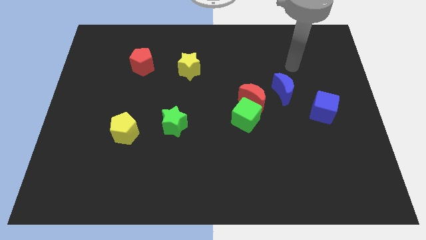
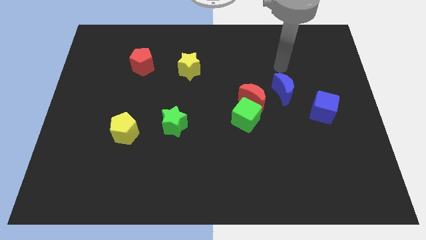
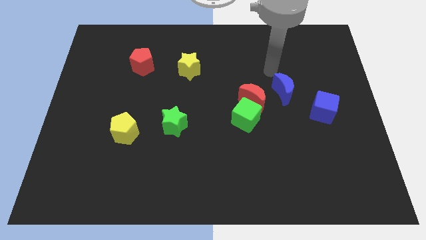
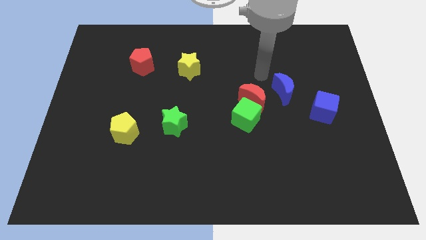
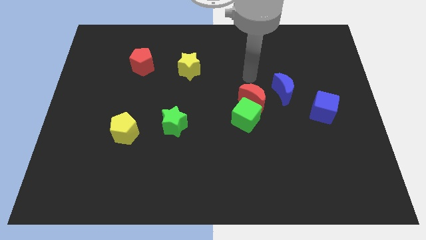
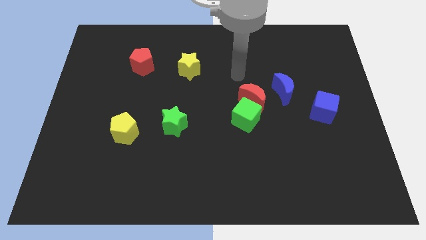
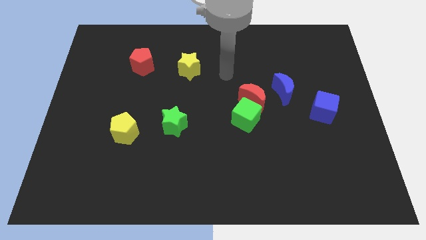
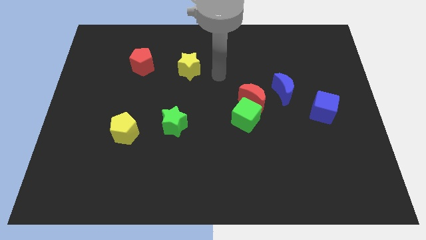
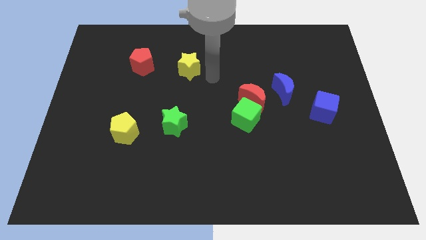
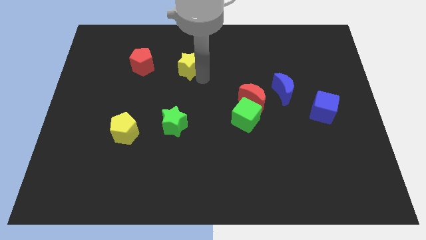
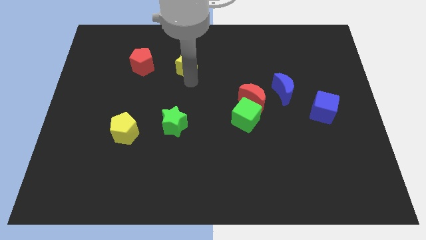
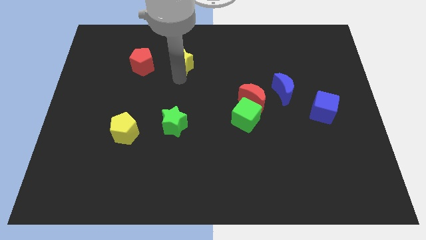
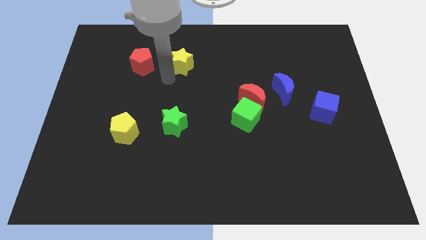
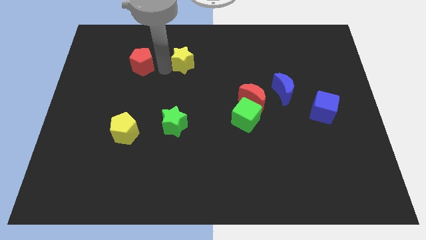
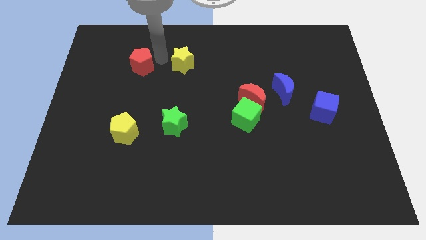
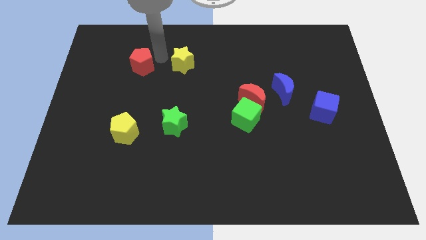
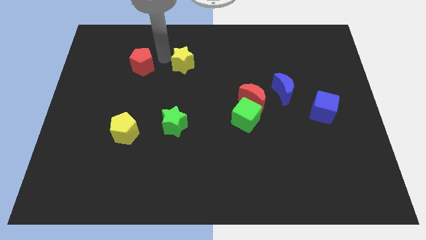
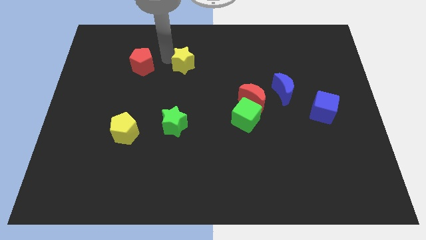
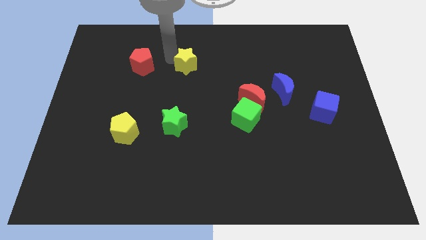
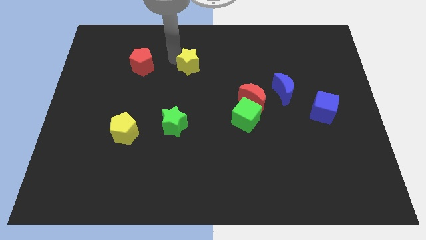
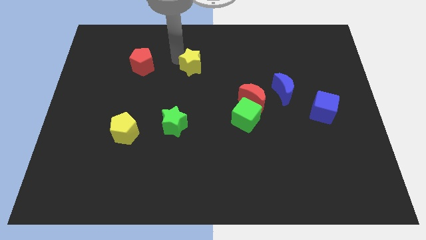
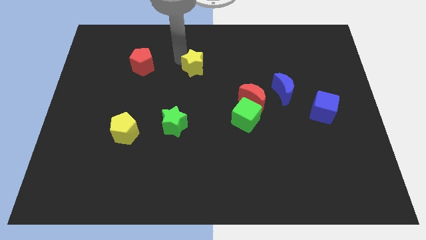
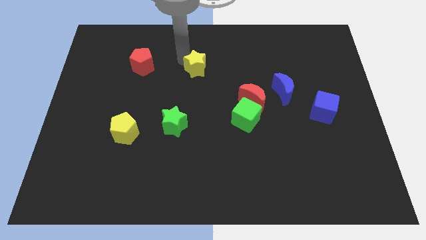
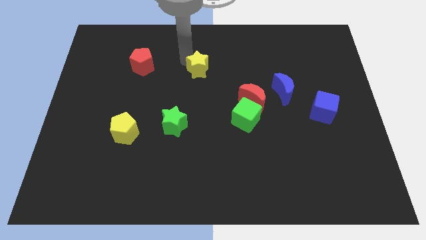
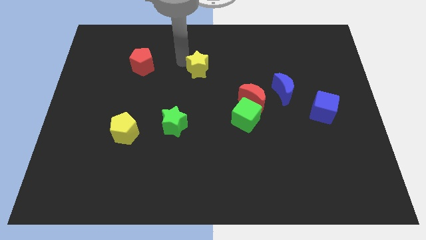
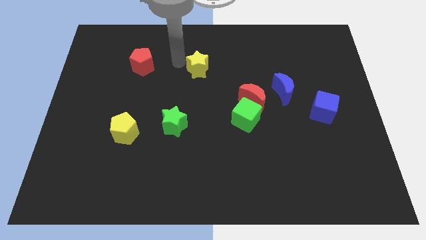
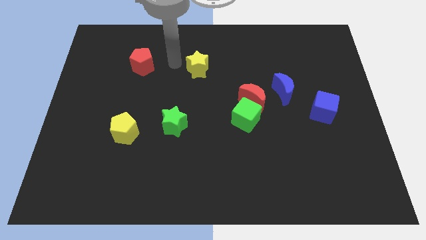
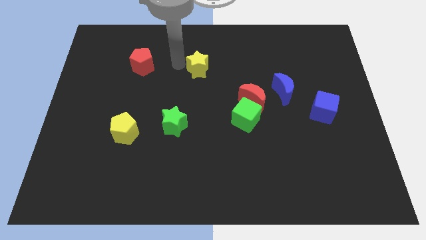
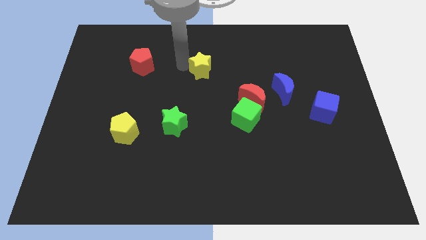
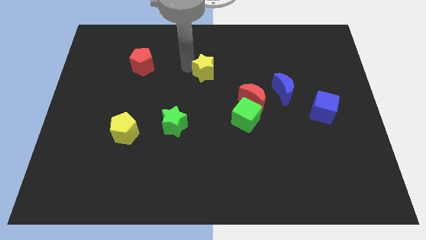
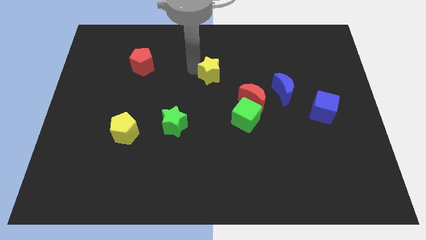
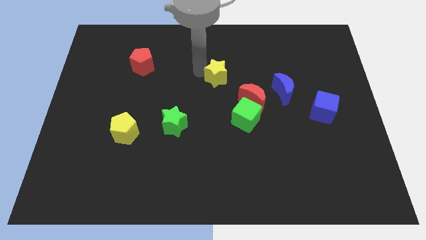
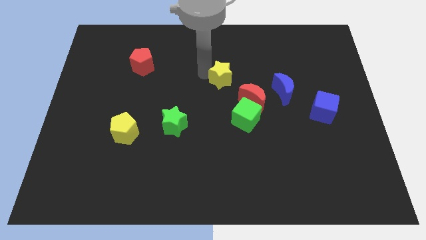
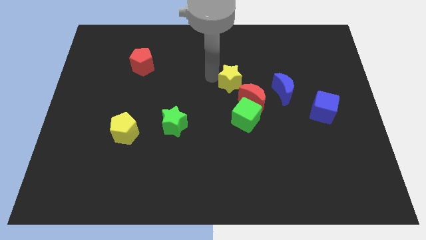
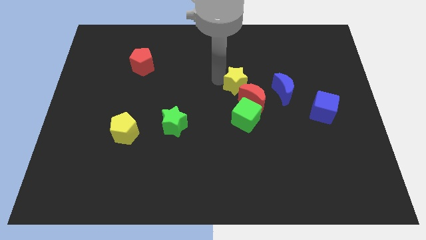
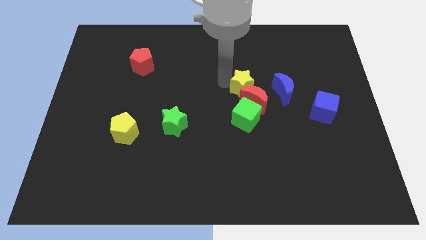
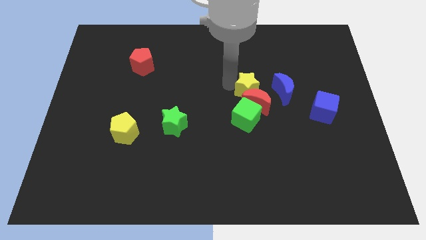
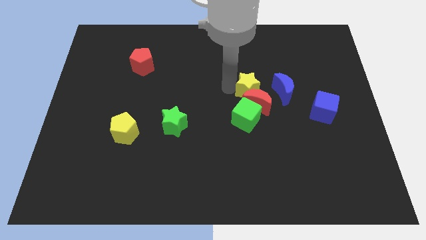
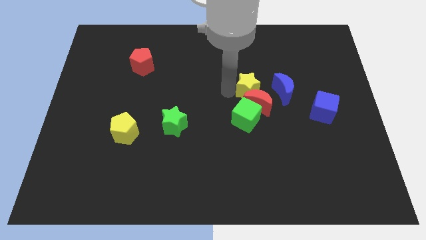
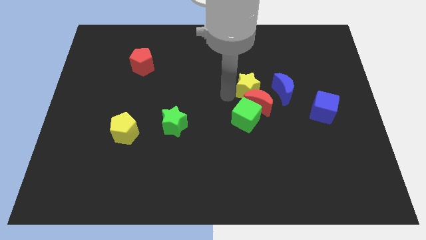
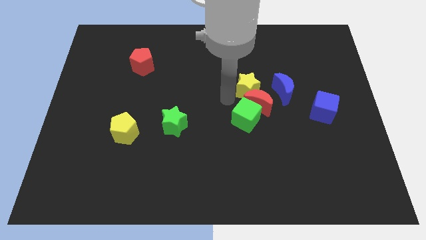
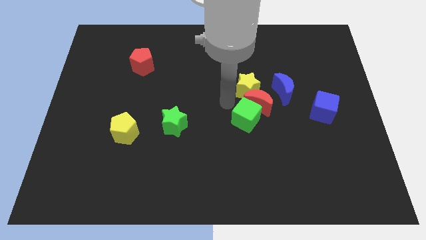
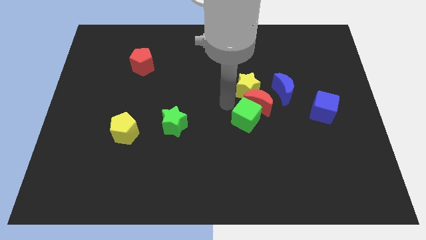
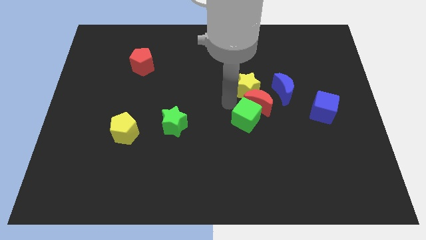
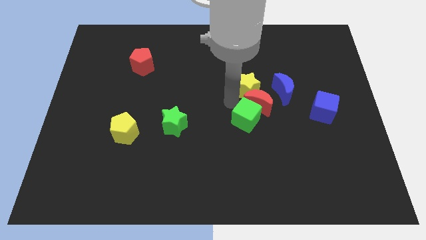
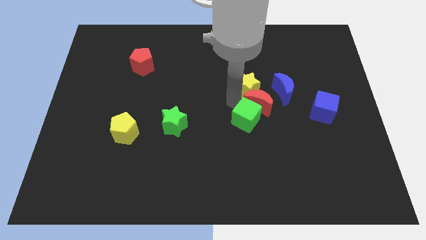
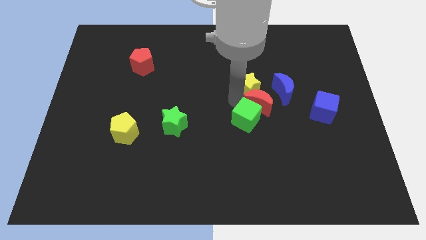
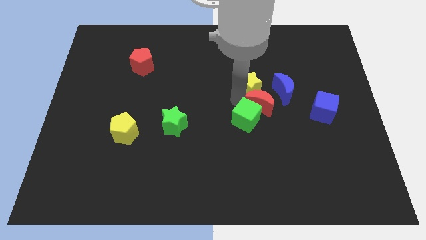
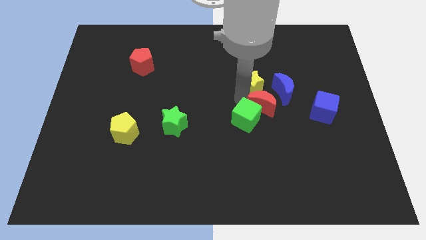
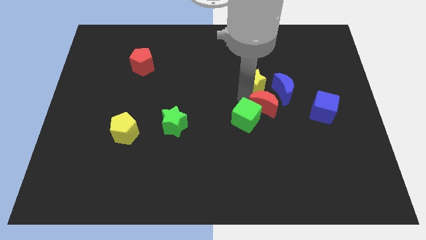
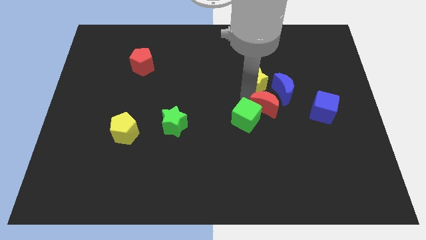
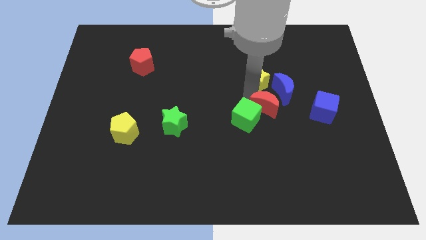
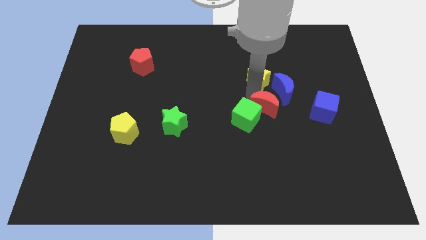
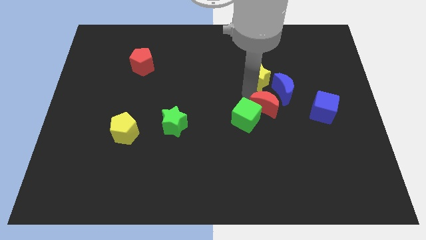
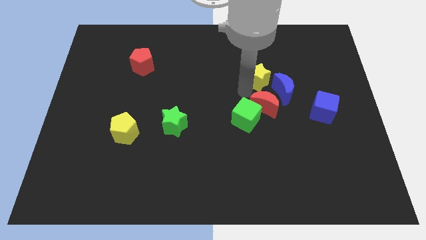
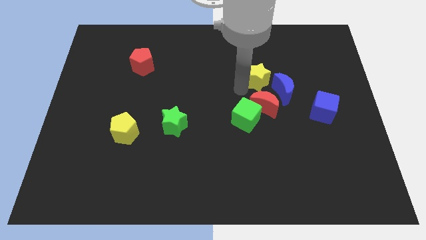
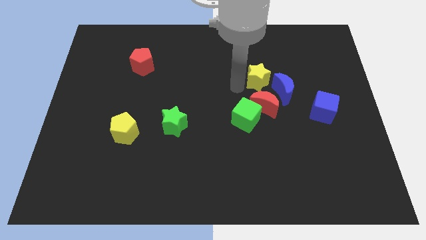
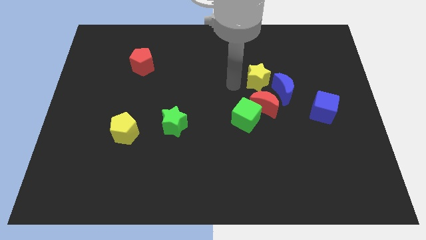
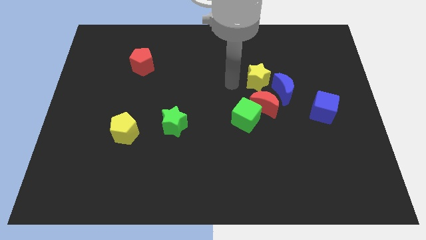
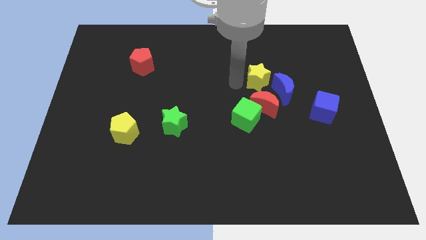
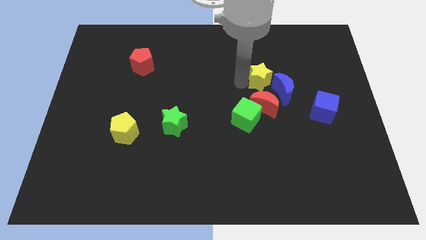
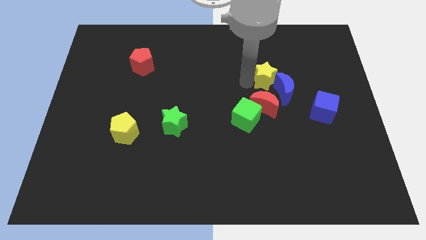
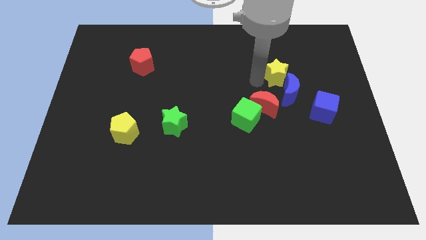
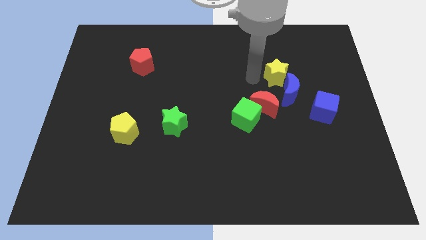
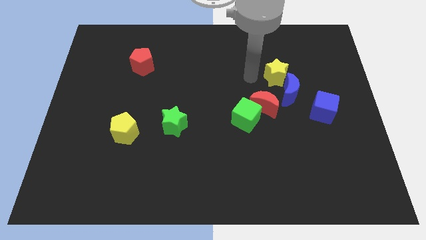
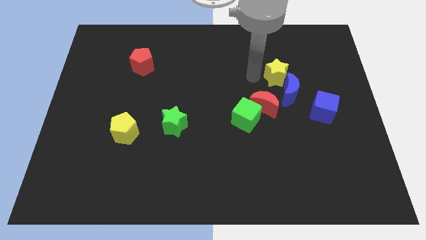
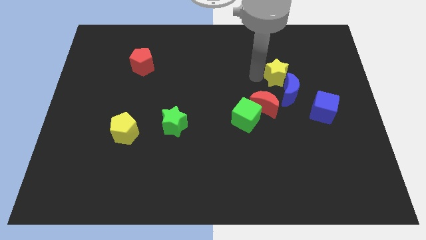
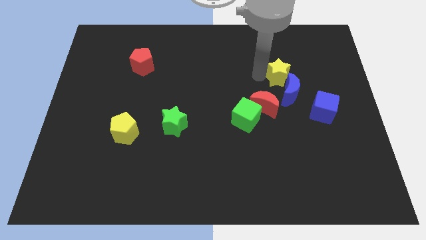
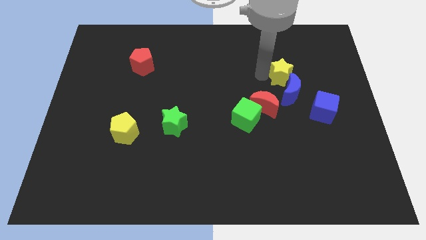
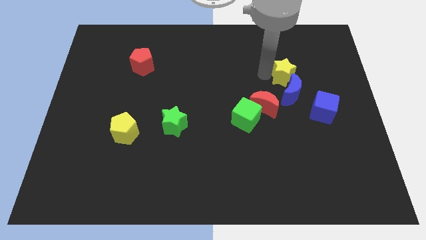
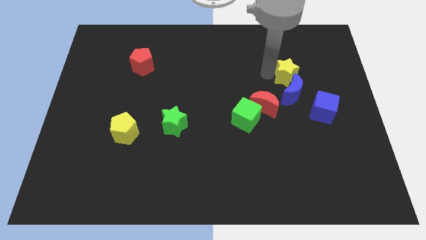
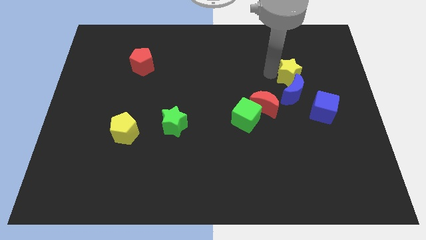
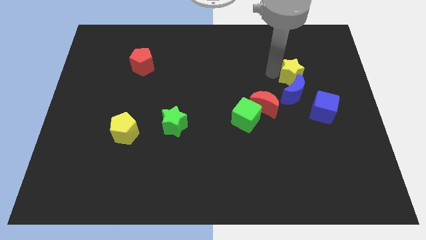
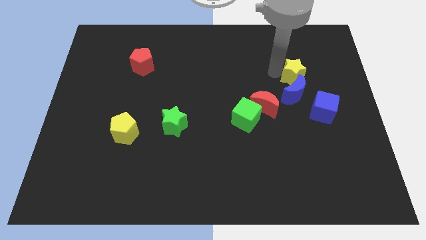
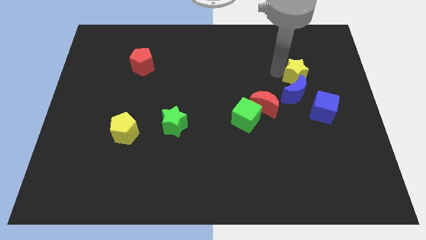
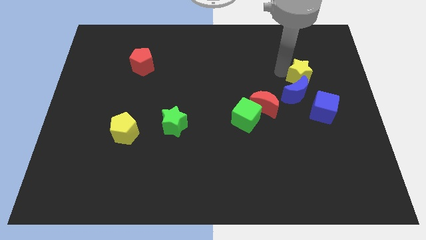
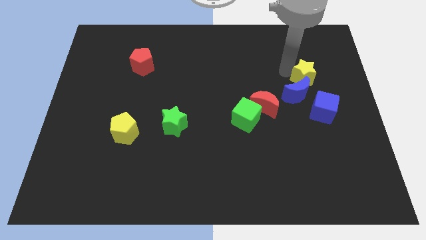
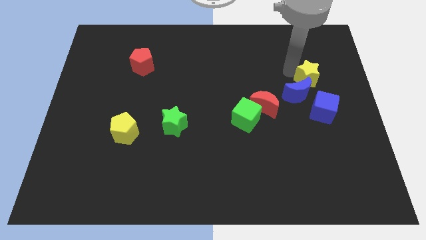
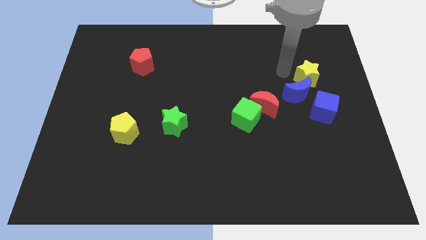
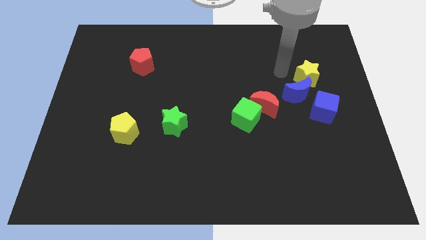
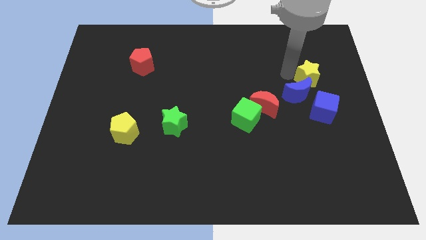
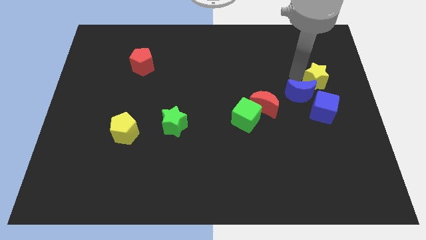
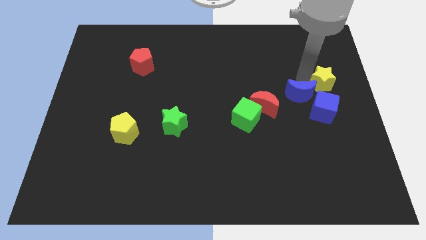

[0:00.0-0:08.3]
move the yellow star to the right side of the board
